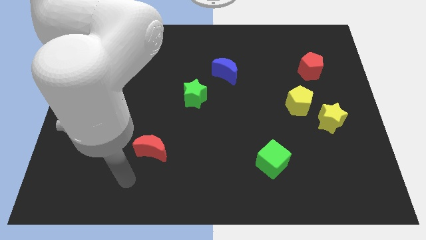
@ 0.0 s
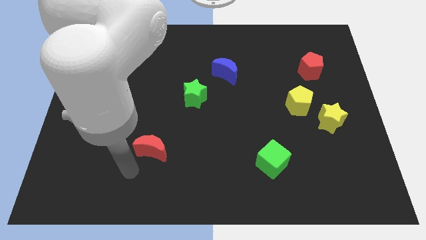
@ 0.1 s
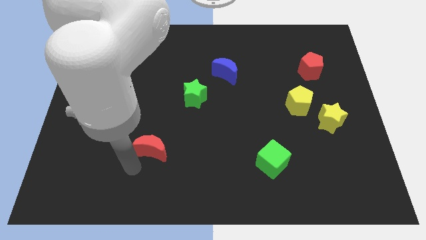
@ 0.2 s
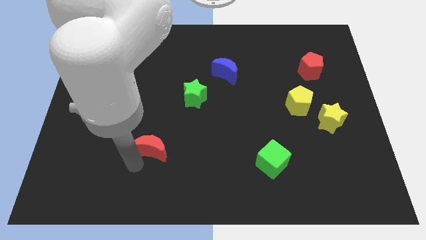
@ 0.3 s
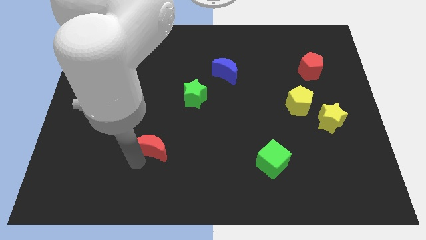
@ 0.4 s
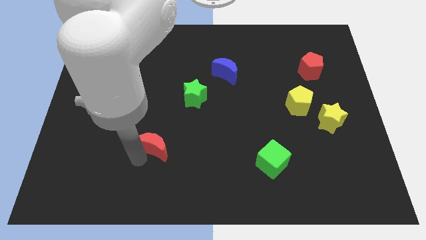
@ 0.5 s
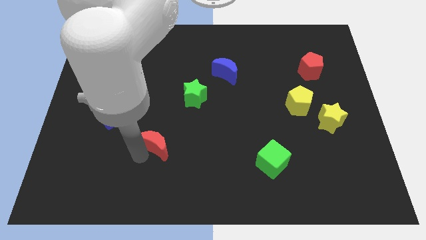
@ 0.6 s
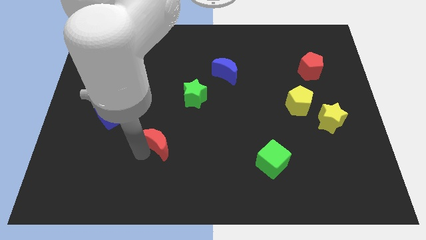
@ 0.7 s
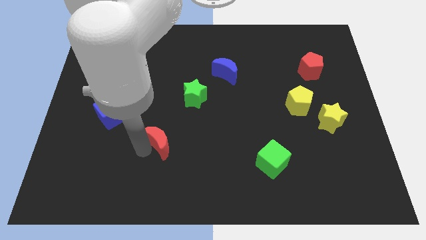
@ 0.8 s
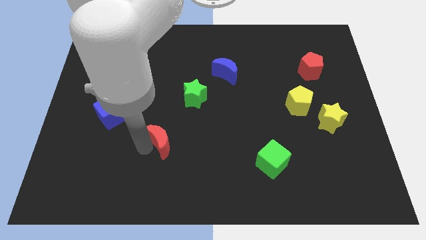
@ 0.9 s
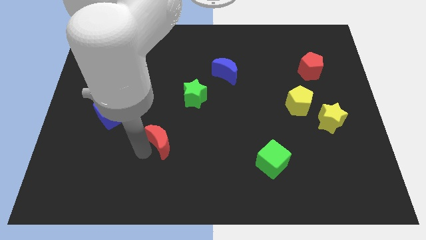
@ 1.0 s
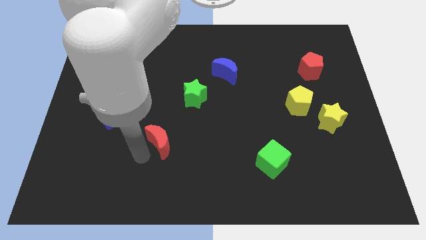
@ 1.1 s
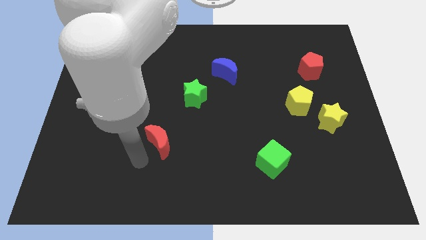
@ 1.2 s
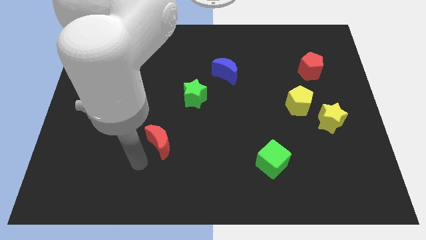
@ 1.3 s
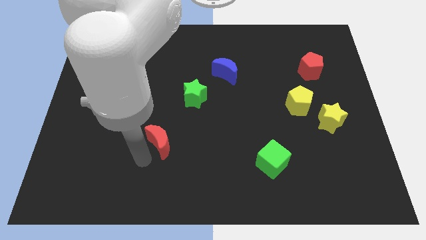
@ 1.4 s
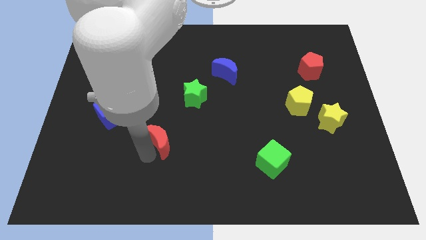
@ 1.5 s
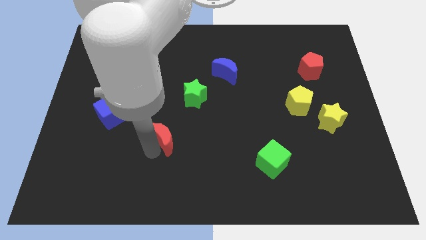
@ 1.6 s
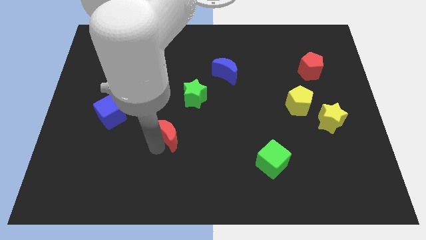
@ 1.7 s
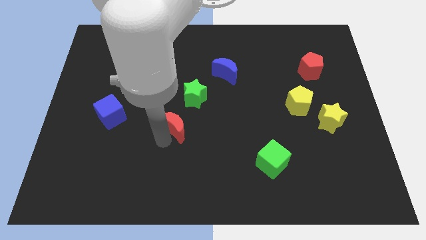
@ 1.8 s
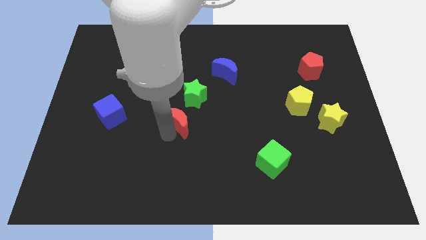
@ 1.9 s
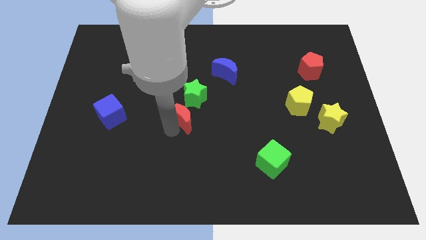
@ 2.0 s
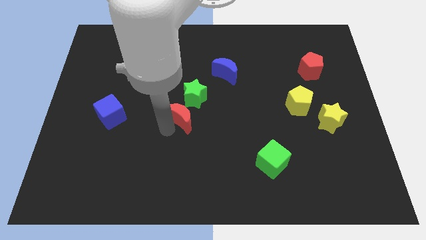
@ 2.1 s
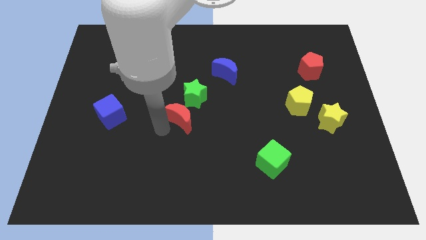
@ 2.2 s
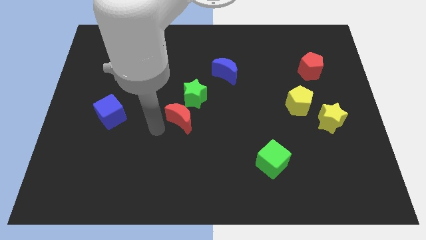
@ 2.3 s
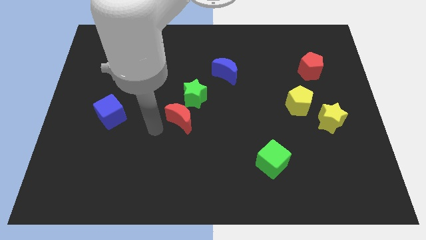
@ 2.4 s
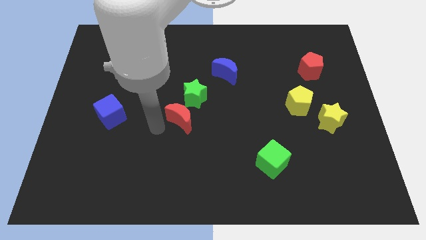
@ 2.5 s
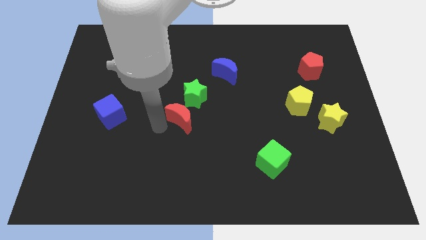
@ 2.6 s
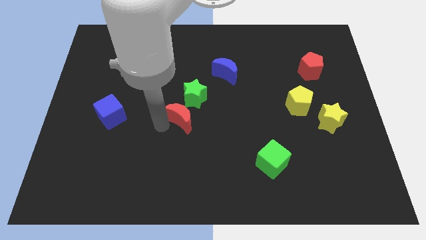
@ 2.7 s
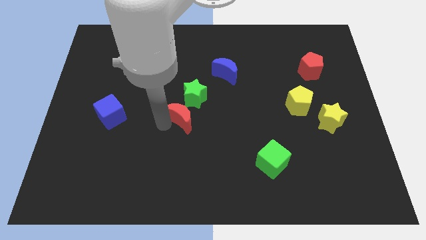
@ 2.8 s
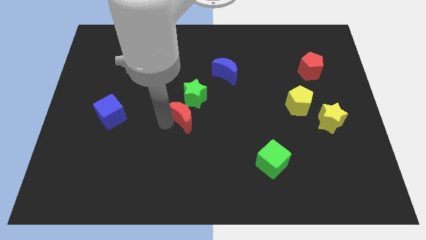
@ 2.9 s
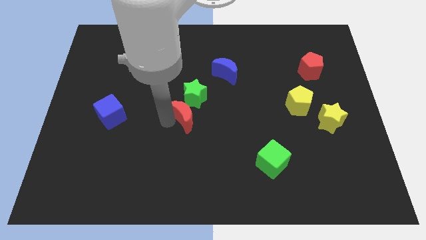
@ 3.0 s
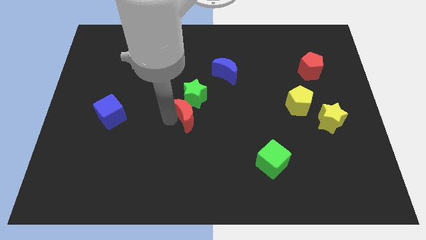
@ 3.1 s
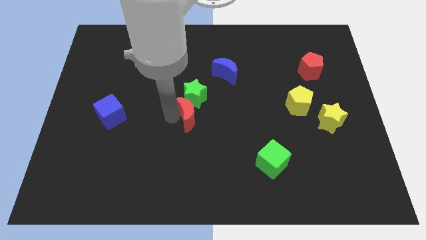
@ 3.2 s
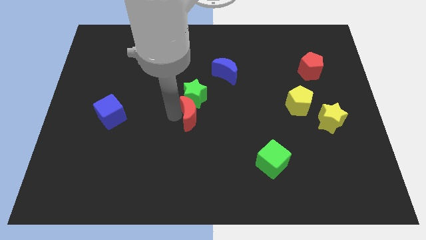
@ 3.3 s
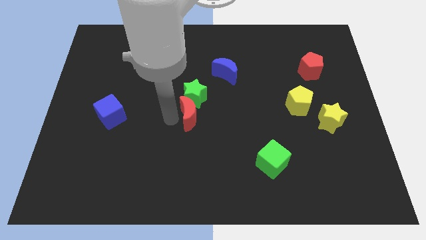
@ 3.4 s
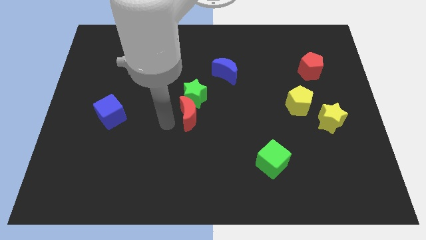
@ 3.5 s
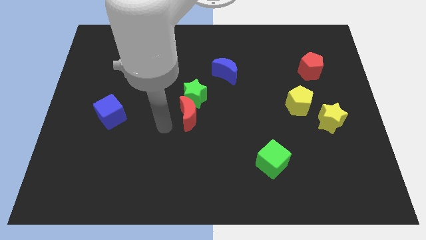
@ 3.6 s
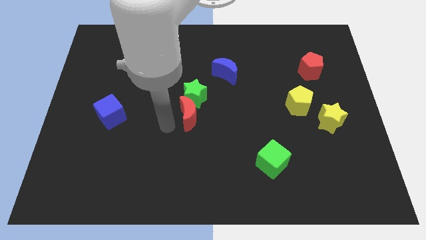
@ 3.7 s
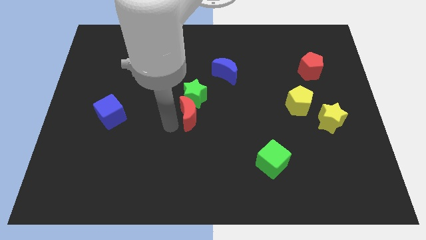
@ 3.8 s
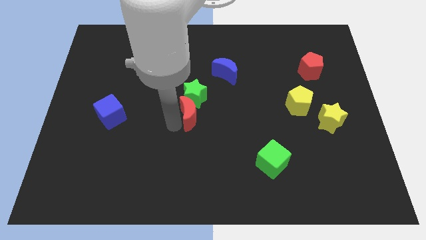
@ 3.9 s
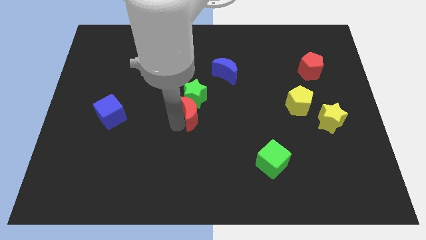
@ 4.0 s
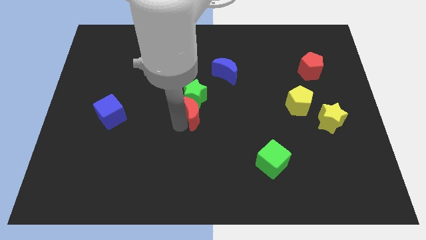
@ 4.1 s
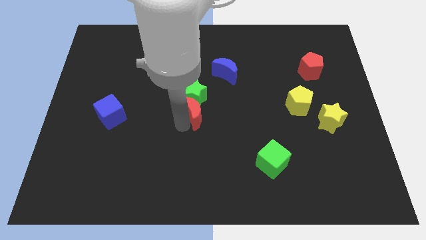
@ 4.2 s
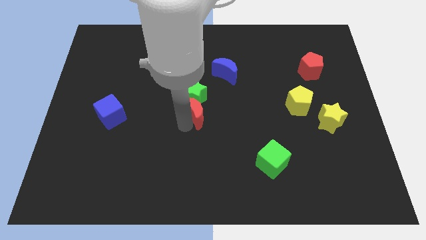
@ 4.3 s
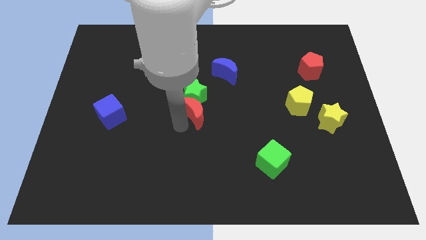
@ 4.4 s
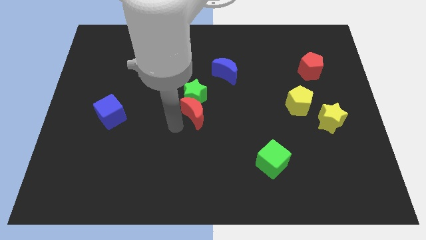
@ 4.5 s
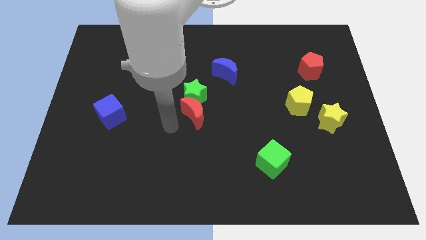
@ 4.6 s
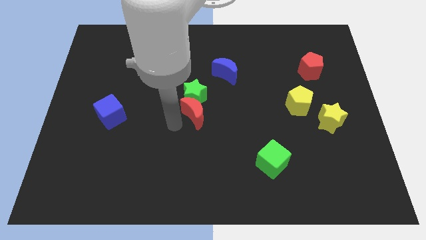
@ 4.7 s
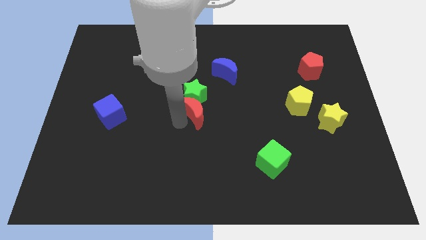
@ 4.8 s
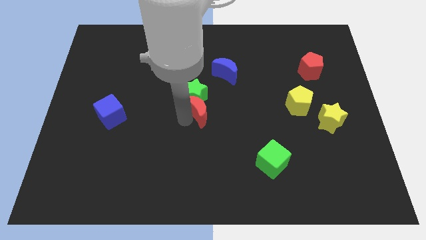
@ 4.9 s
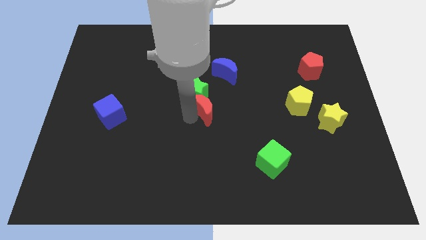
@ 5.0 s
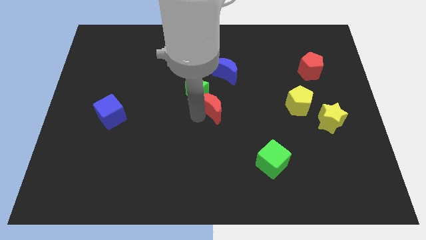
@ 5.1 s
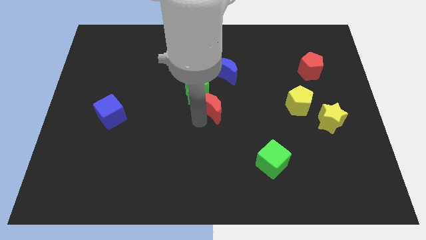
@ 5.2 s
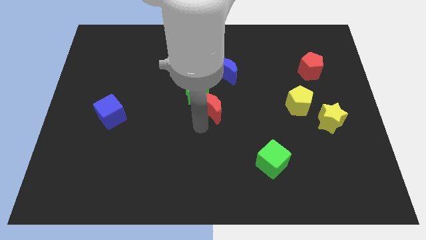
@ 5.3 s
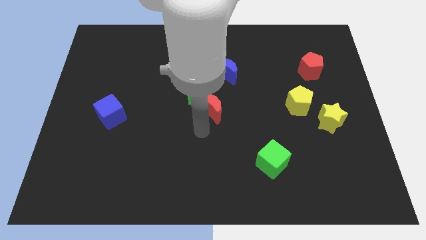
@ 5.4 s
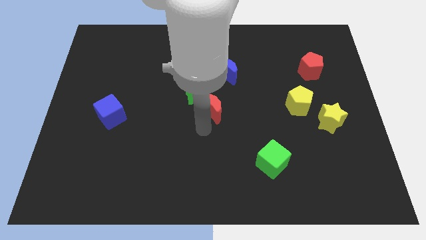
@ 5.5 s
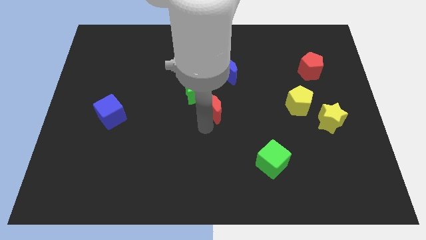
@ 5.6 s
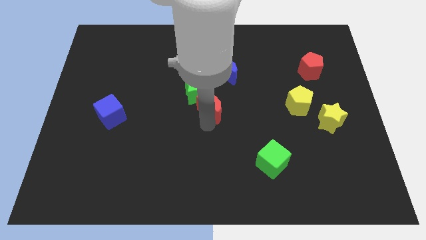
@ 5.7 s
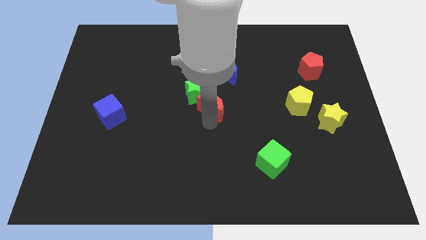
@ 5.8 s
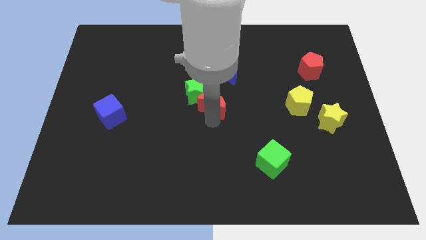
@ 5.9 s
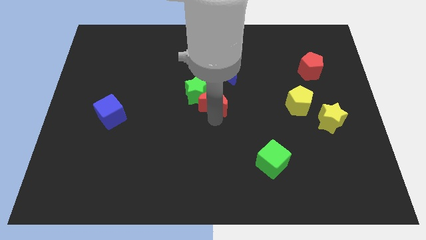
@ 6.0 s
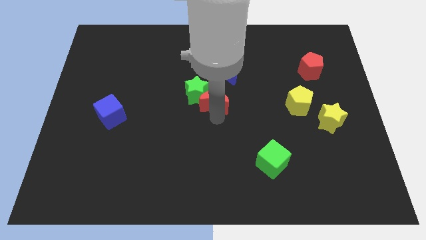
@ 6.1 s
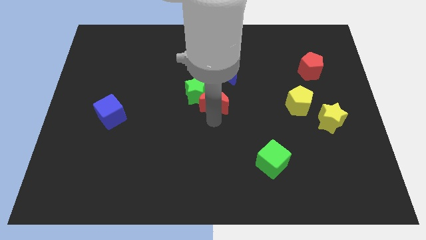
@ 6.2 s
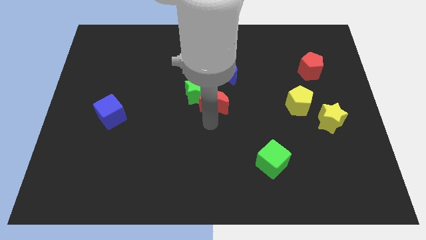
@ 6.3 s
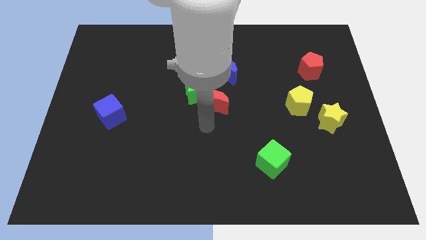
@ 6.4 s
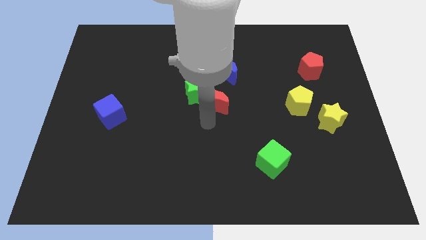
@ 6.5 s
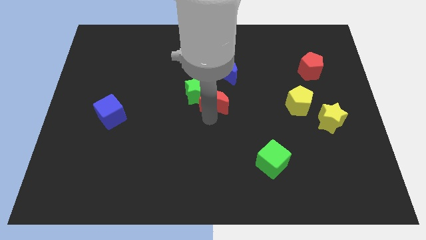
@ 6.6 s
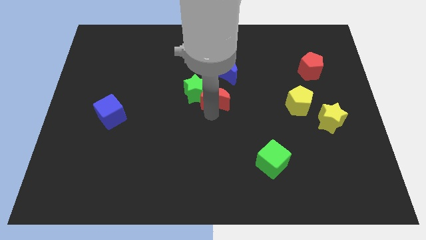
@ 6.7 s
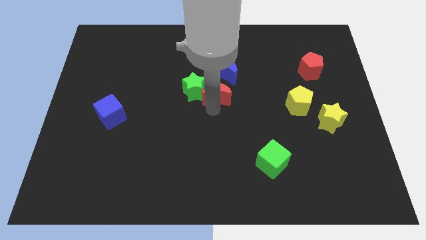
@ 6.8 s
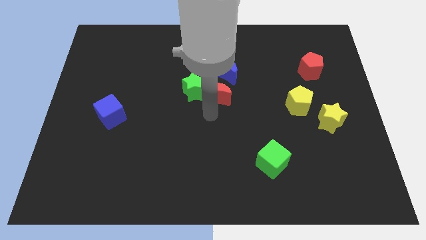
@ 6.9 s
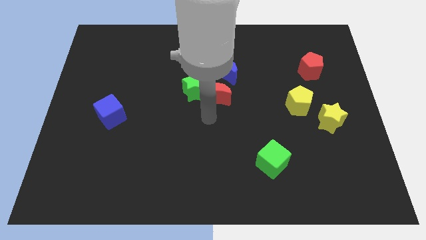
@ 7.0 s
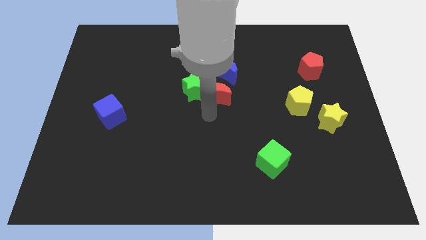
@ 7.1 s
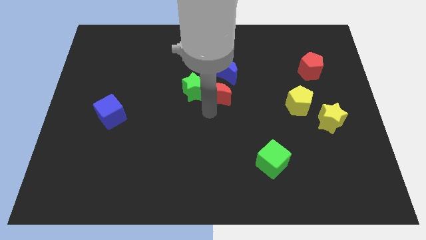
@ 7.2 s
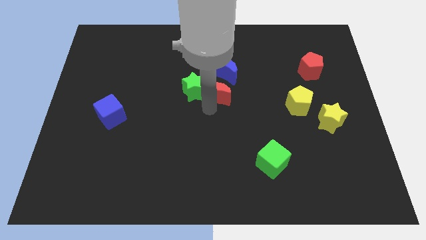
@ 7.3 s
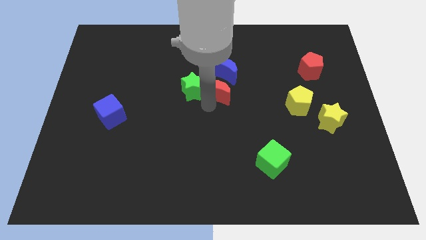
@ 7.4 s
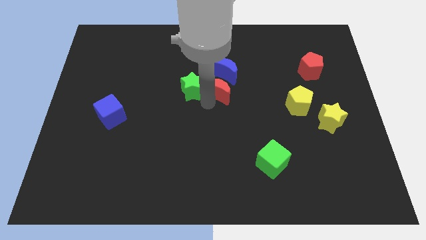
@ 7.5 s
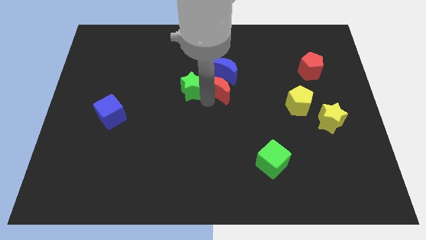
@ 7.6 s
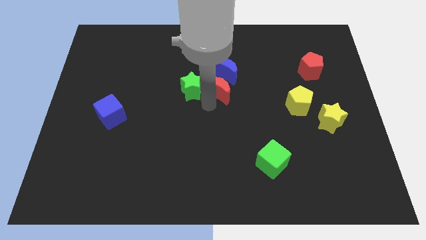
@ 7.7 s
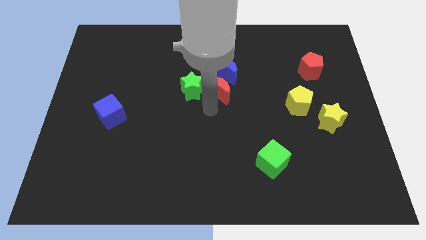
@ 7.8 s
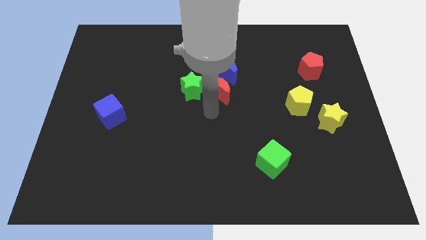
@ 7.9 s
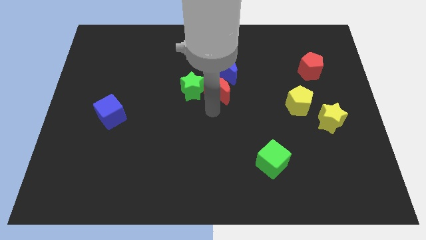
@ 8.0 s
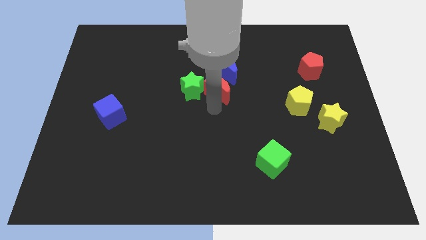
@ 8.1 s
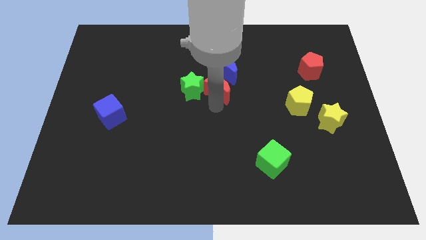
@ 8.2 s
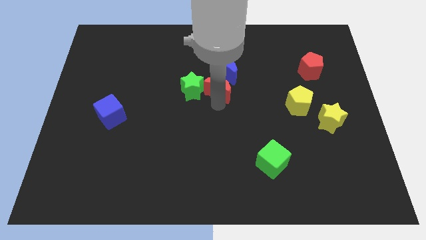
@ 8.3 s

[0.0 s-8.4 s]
push the red moon close to the blue moon
